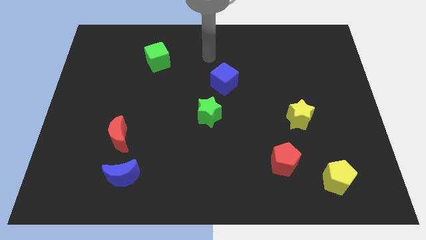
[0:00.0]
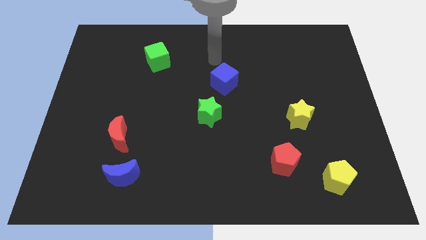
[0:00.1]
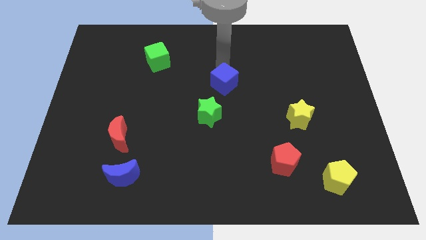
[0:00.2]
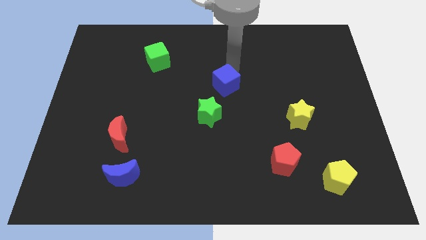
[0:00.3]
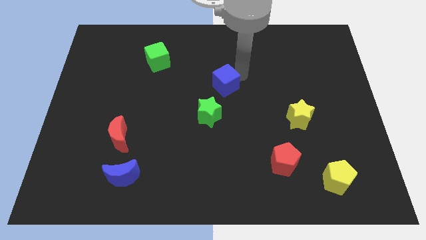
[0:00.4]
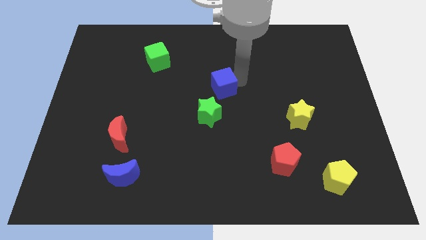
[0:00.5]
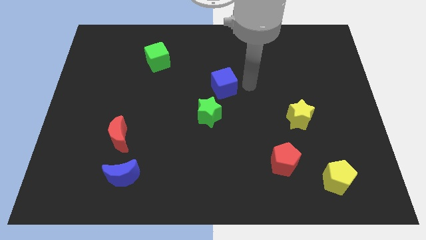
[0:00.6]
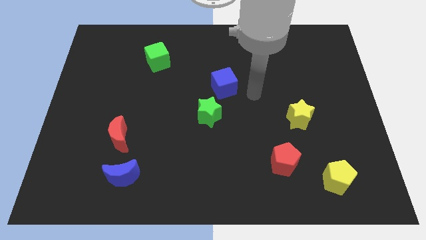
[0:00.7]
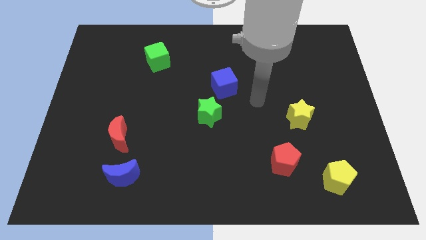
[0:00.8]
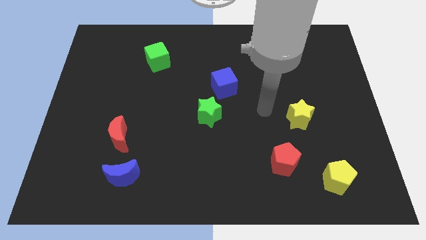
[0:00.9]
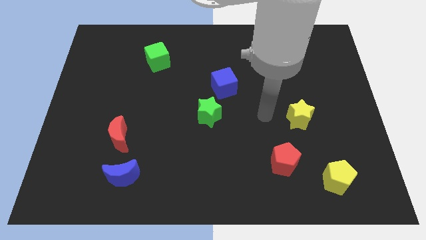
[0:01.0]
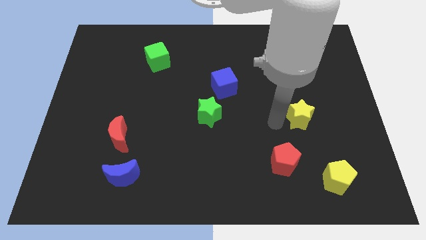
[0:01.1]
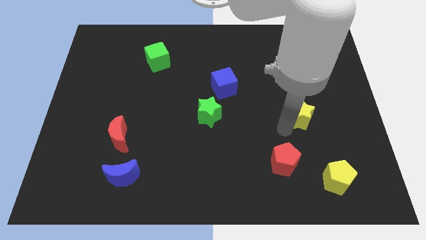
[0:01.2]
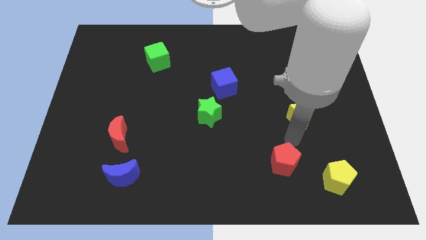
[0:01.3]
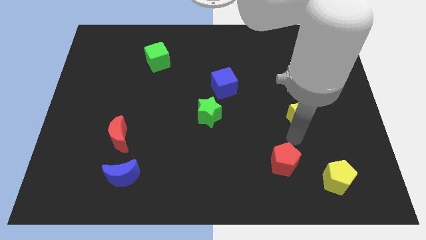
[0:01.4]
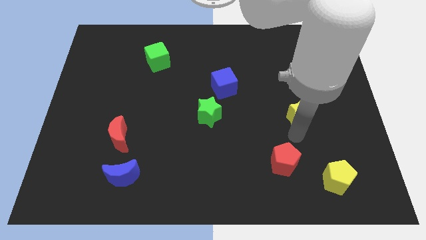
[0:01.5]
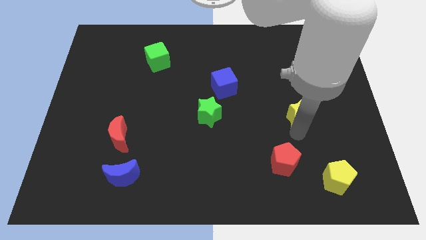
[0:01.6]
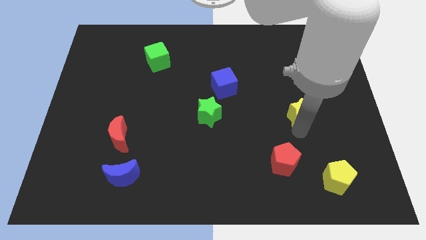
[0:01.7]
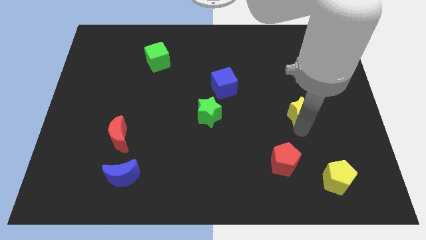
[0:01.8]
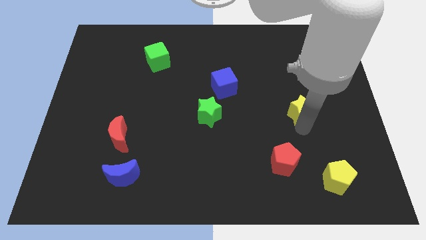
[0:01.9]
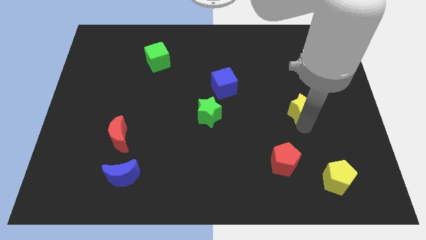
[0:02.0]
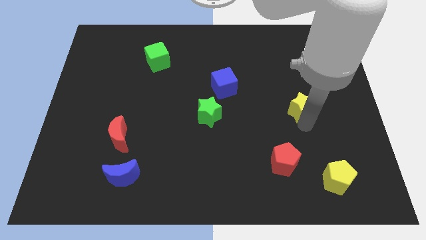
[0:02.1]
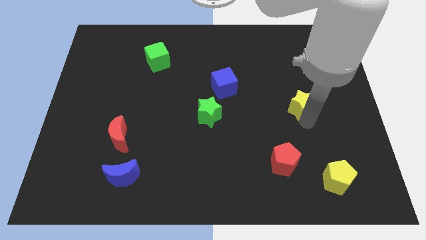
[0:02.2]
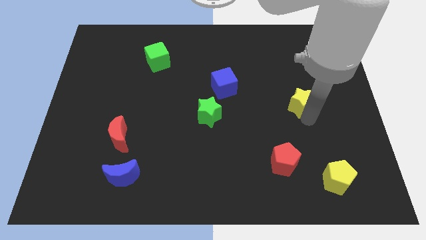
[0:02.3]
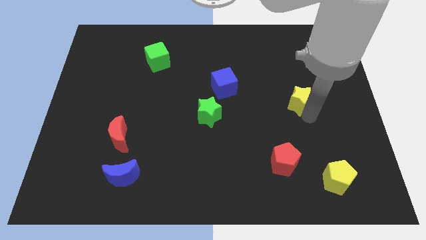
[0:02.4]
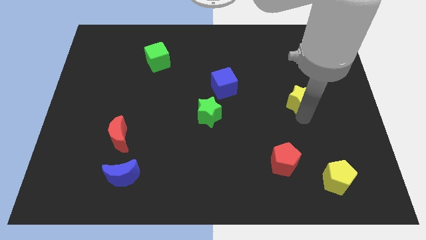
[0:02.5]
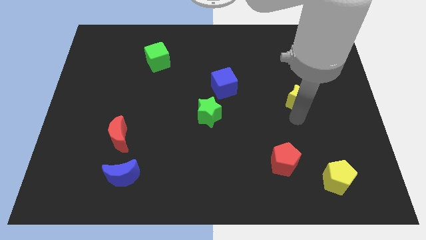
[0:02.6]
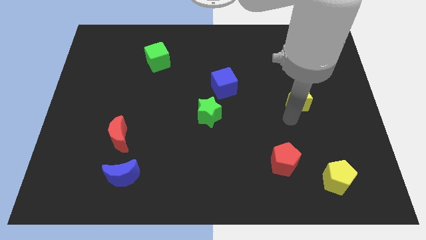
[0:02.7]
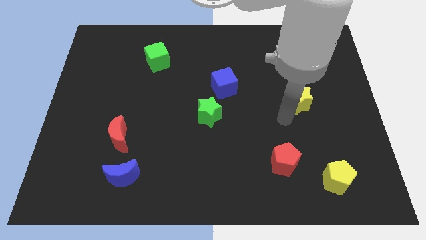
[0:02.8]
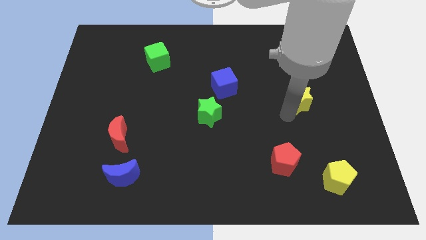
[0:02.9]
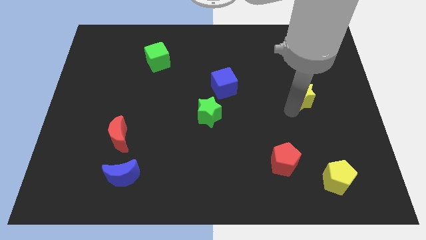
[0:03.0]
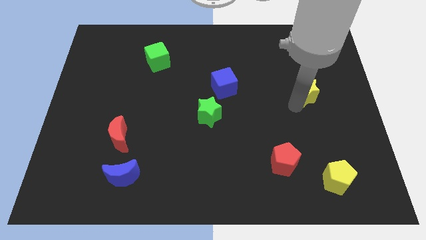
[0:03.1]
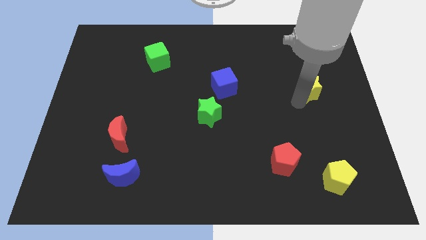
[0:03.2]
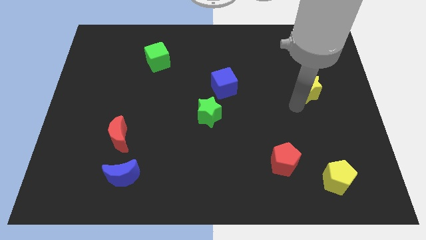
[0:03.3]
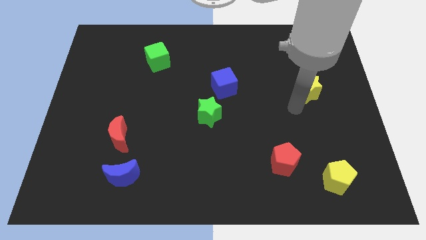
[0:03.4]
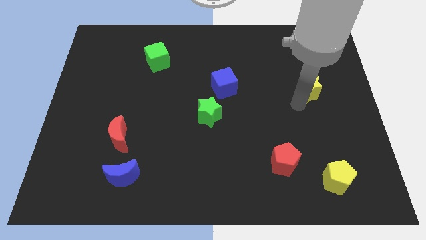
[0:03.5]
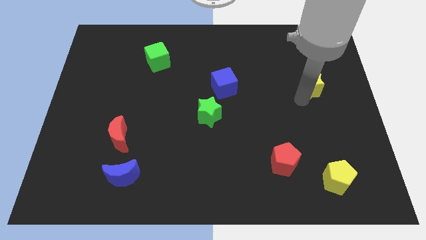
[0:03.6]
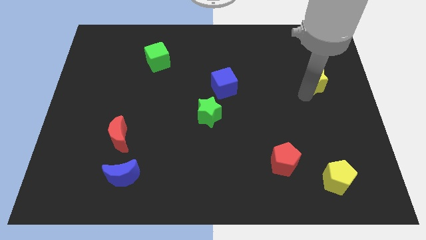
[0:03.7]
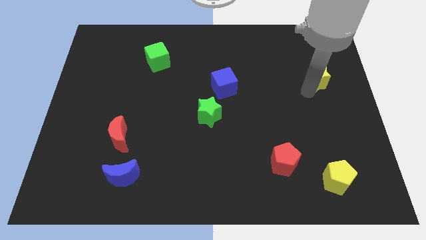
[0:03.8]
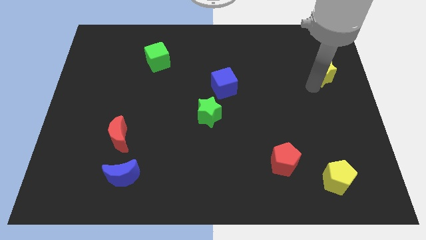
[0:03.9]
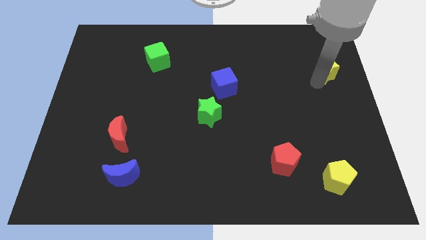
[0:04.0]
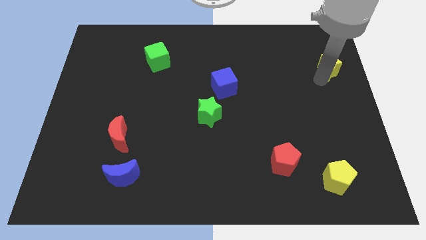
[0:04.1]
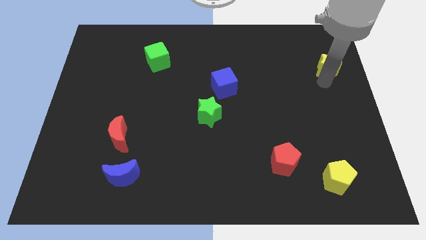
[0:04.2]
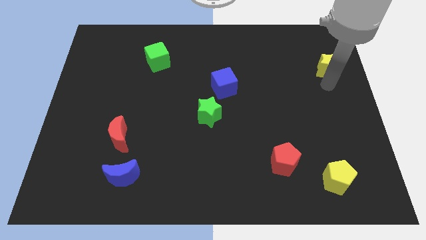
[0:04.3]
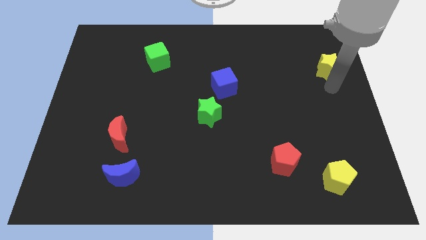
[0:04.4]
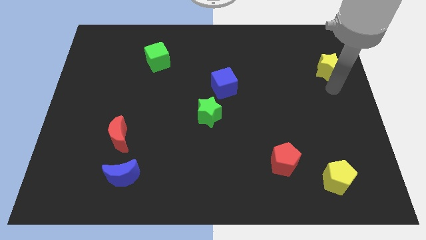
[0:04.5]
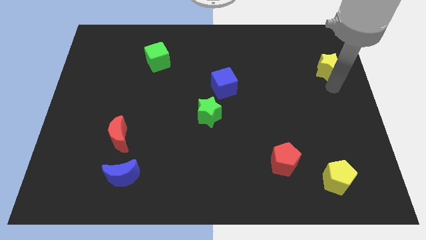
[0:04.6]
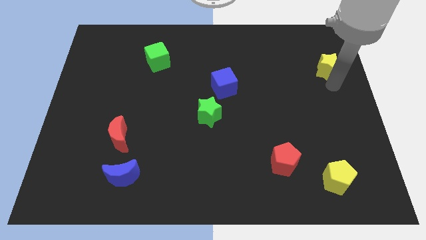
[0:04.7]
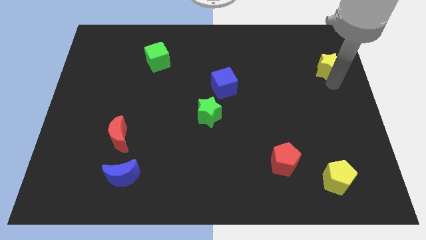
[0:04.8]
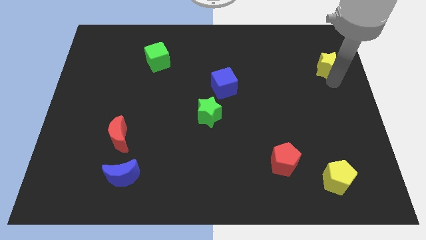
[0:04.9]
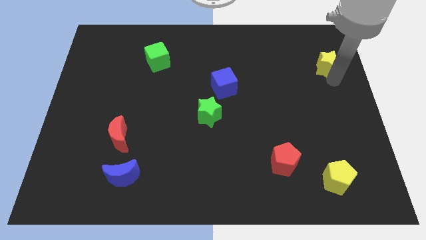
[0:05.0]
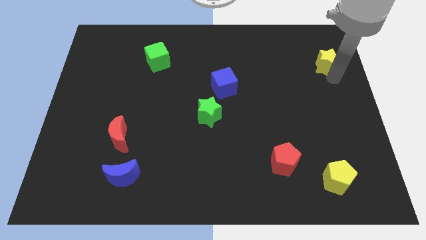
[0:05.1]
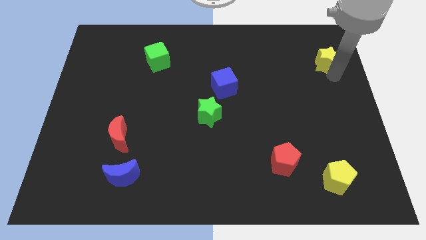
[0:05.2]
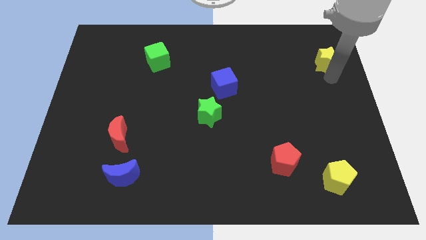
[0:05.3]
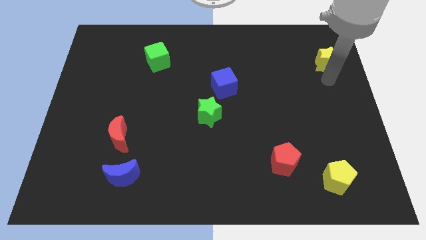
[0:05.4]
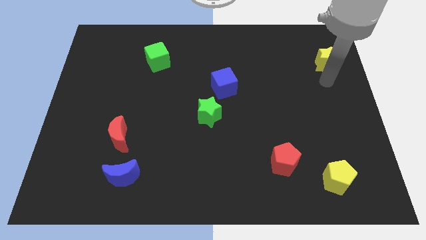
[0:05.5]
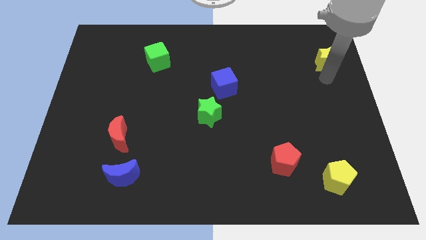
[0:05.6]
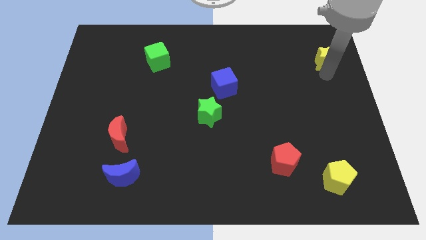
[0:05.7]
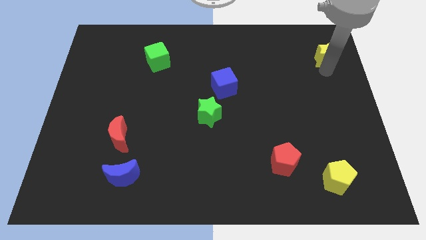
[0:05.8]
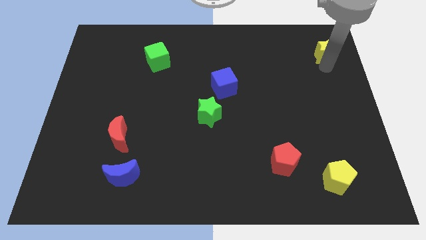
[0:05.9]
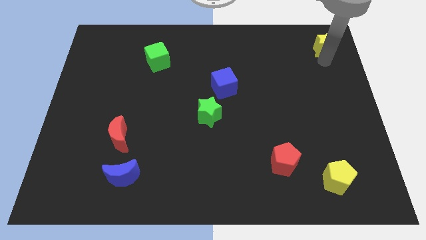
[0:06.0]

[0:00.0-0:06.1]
put the yellow star to the top right corner

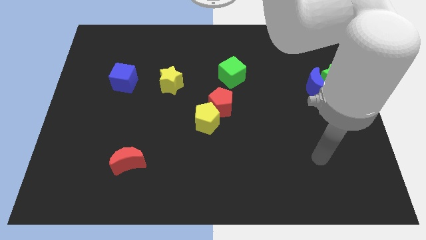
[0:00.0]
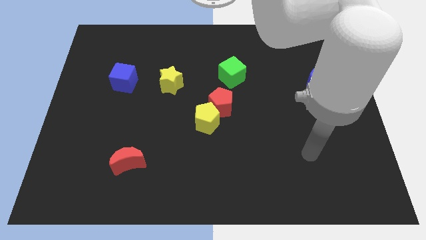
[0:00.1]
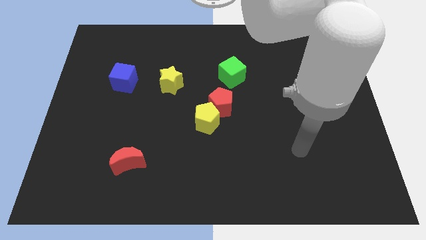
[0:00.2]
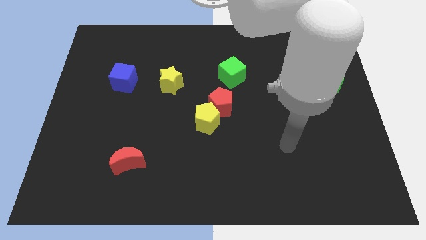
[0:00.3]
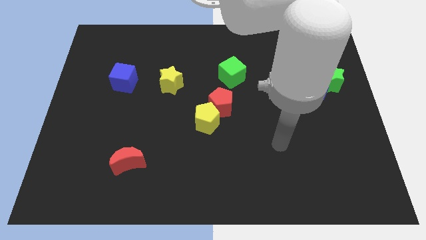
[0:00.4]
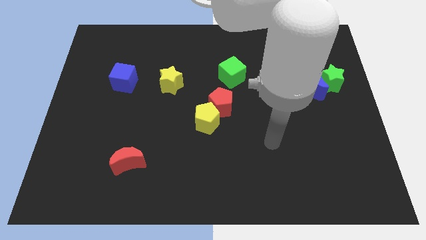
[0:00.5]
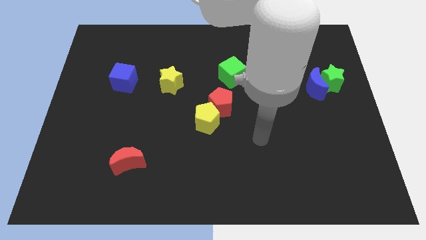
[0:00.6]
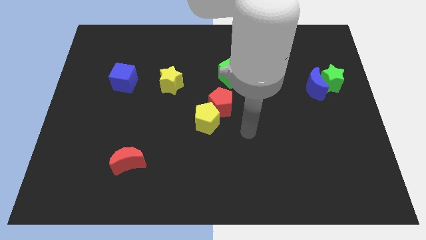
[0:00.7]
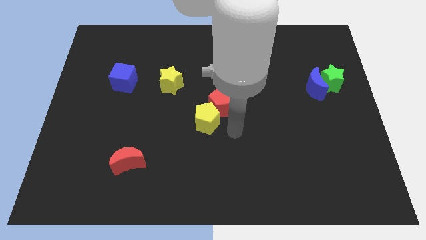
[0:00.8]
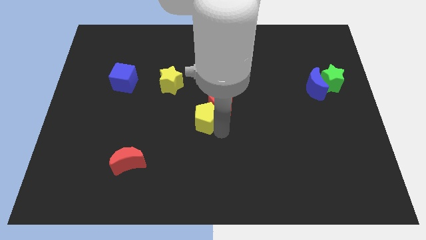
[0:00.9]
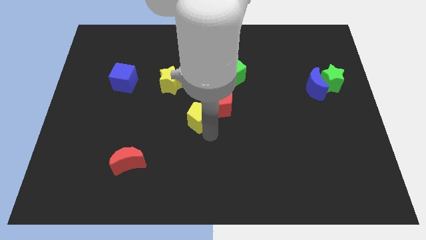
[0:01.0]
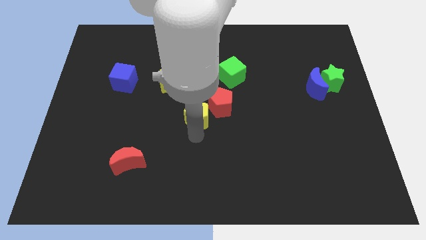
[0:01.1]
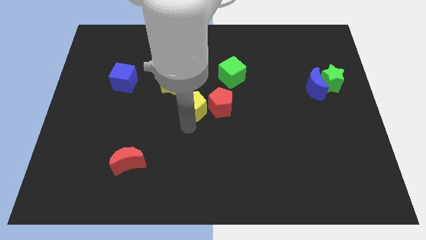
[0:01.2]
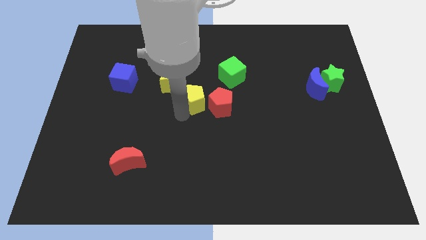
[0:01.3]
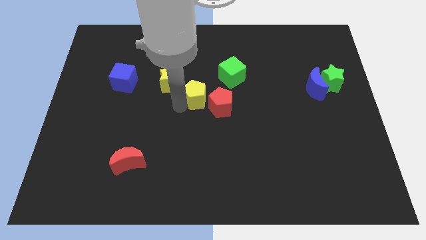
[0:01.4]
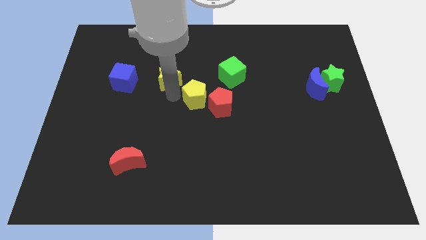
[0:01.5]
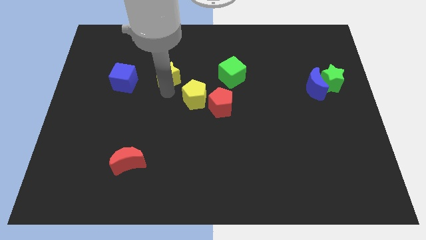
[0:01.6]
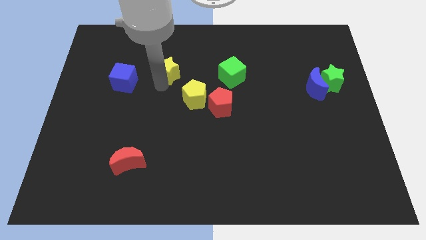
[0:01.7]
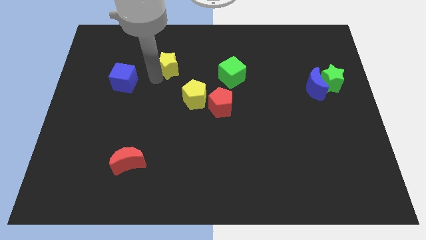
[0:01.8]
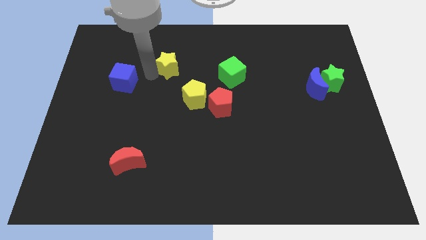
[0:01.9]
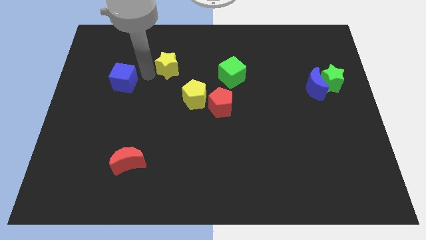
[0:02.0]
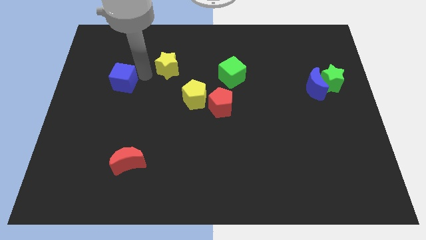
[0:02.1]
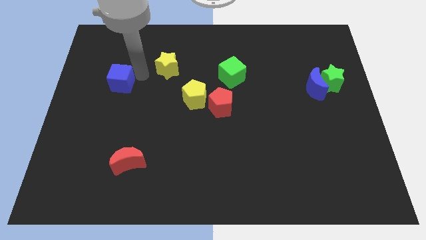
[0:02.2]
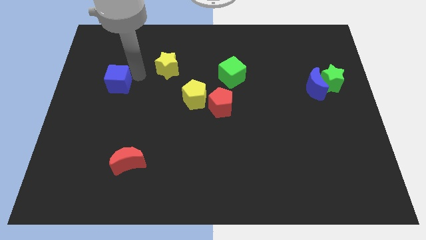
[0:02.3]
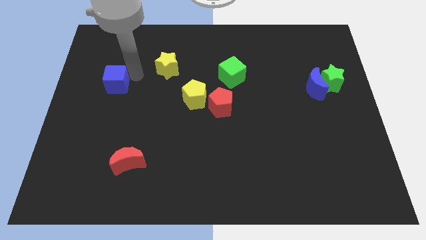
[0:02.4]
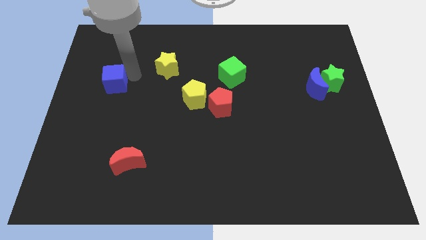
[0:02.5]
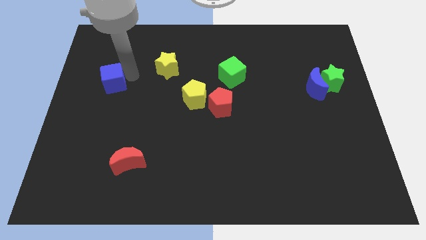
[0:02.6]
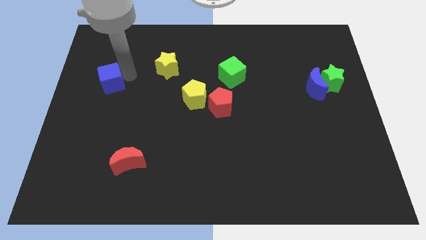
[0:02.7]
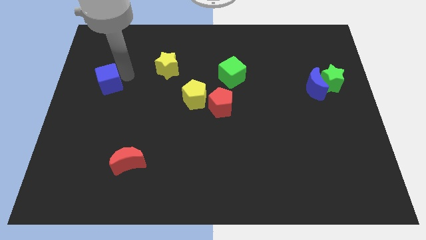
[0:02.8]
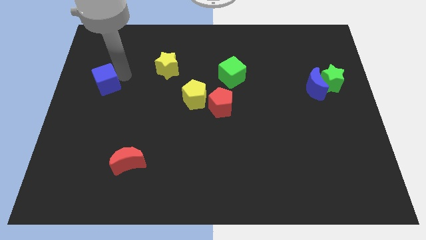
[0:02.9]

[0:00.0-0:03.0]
slide the blue cube to the left side of the board
